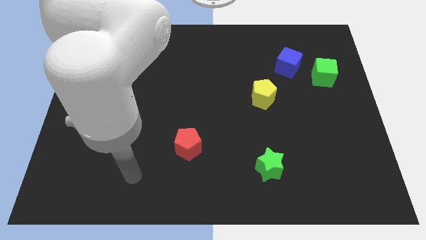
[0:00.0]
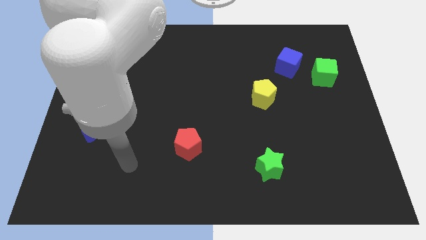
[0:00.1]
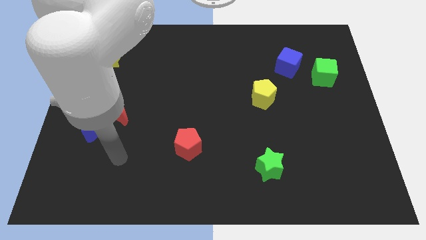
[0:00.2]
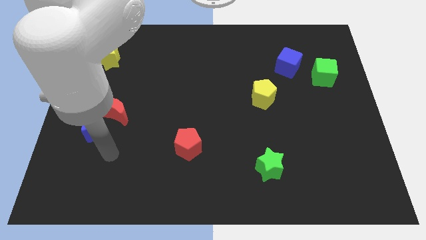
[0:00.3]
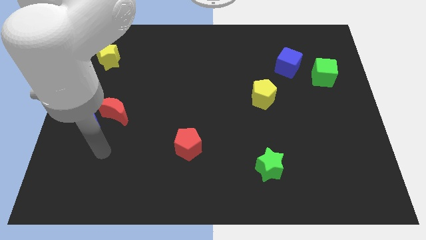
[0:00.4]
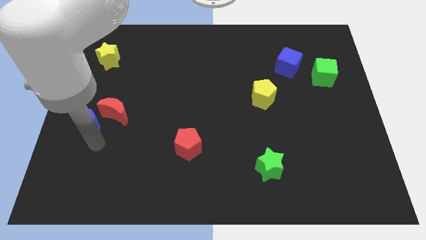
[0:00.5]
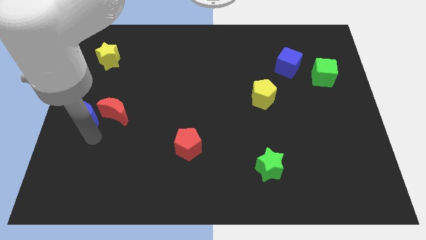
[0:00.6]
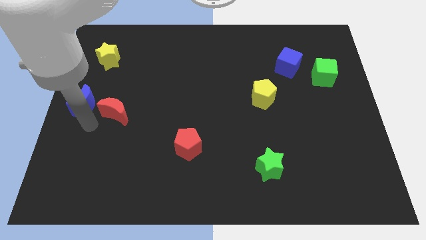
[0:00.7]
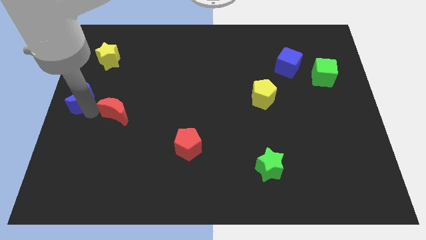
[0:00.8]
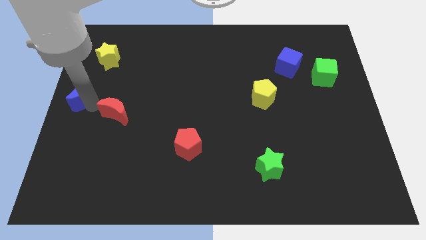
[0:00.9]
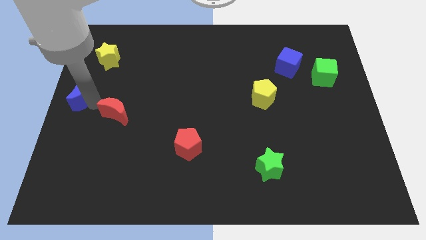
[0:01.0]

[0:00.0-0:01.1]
move the red moon away from the blue moon

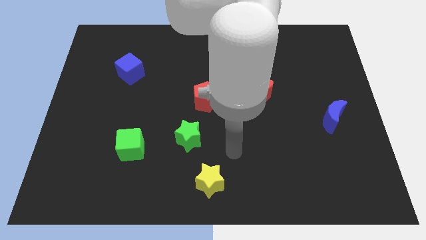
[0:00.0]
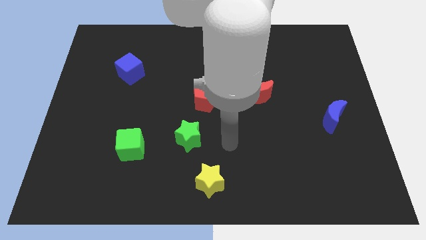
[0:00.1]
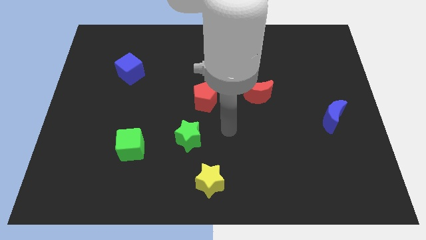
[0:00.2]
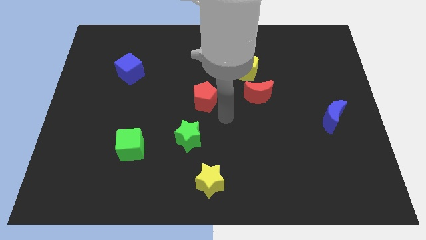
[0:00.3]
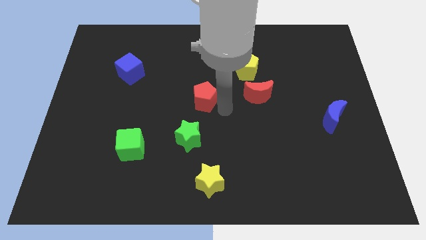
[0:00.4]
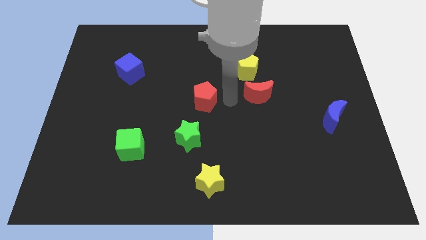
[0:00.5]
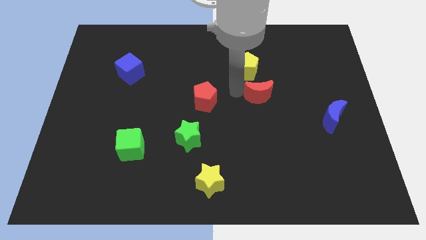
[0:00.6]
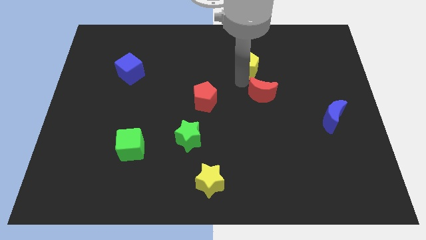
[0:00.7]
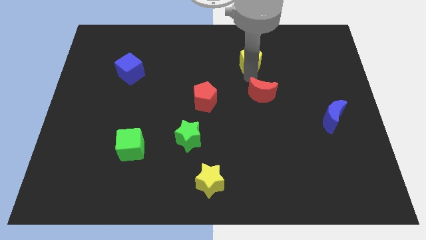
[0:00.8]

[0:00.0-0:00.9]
pull the red moon apart from the yellow pentagon

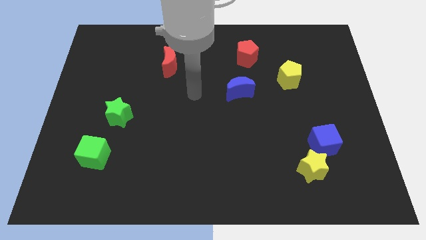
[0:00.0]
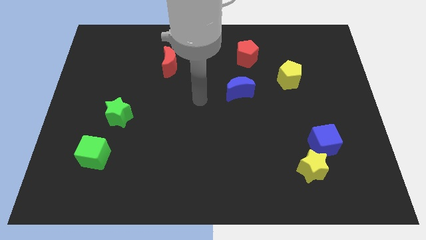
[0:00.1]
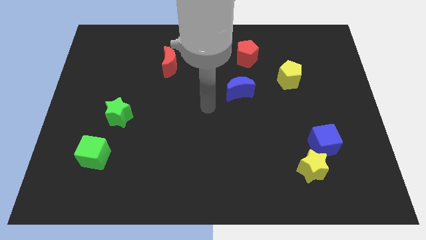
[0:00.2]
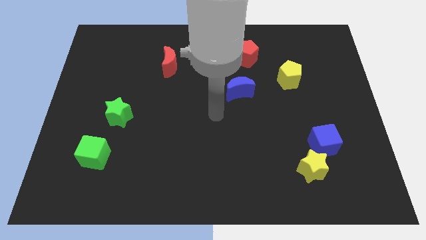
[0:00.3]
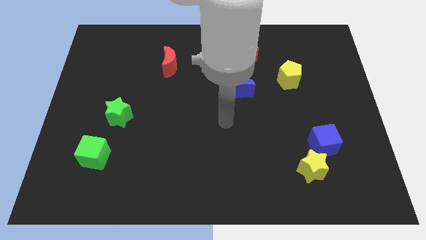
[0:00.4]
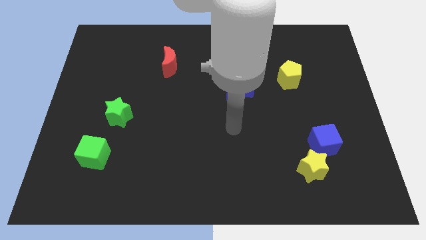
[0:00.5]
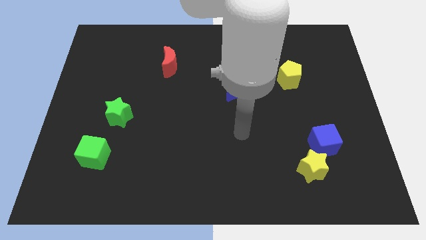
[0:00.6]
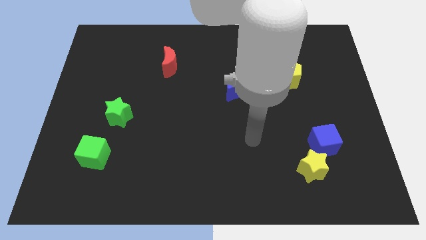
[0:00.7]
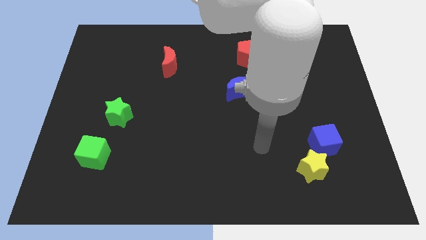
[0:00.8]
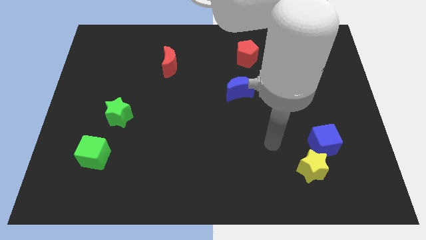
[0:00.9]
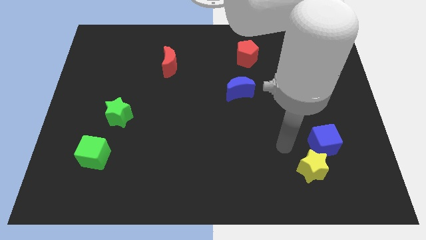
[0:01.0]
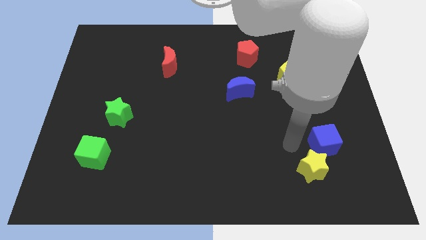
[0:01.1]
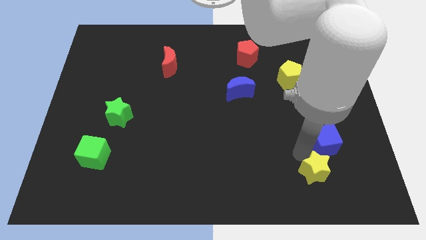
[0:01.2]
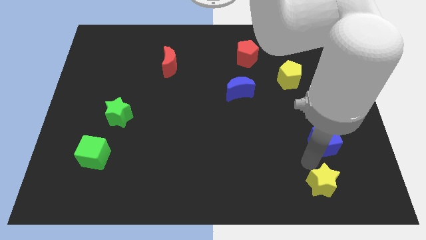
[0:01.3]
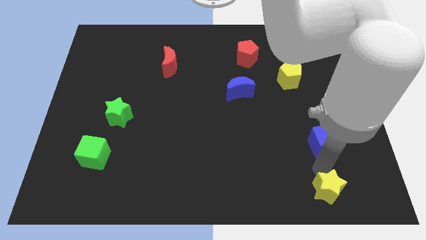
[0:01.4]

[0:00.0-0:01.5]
pull the blue cube apart from the yellow star

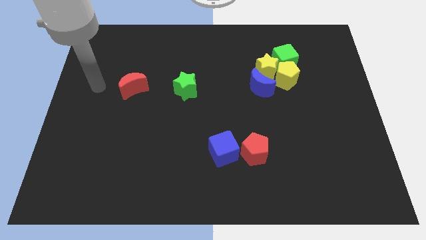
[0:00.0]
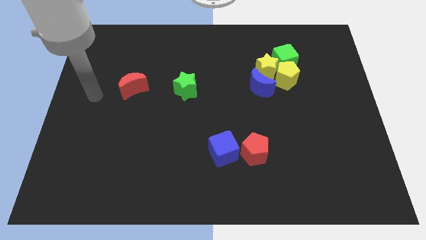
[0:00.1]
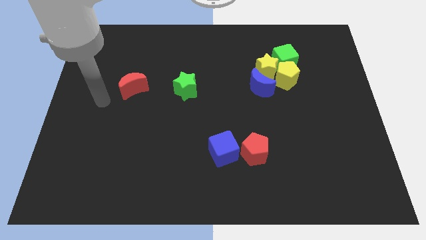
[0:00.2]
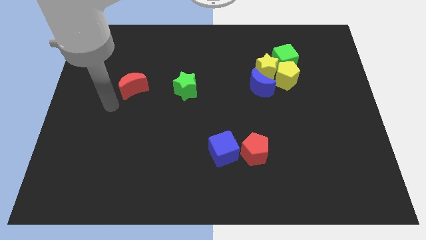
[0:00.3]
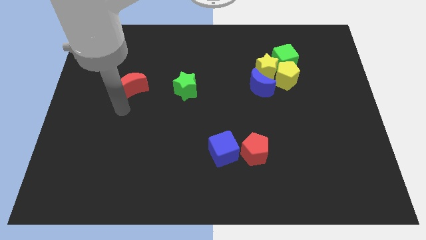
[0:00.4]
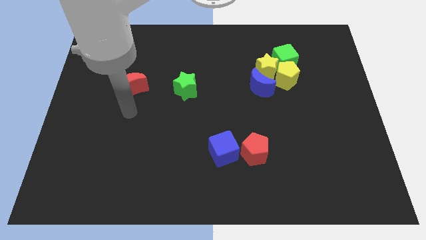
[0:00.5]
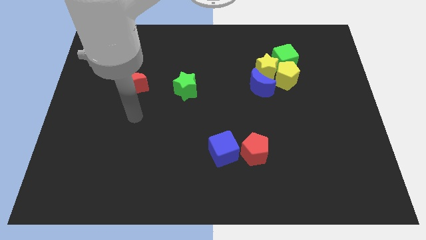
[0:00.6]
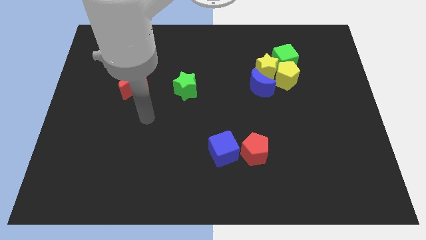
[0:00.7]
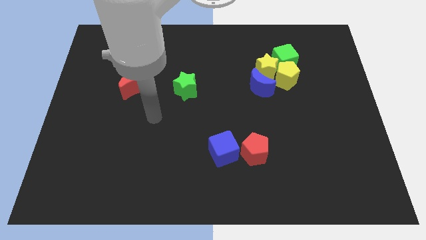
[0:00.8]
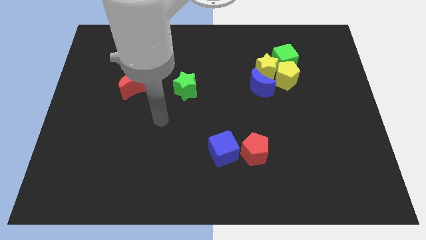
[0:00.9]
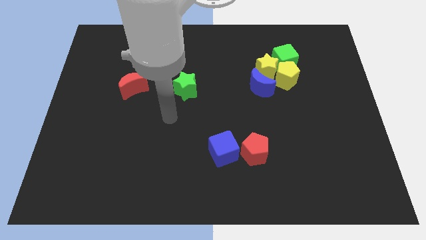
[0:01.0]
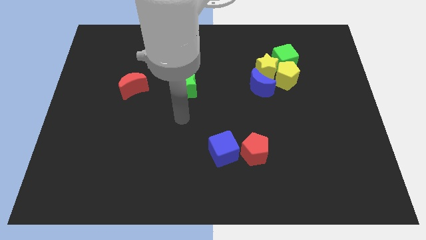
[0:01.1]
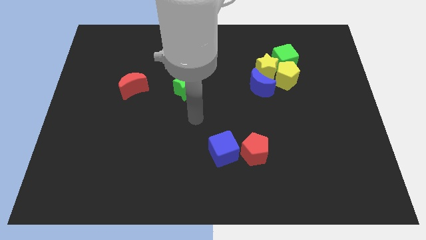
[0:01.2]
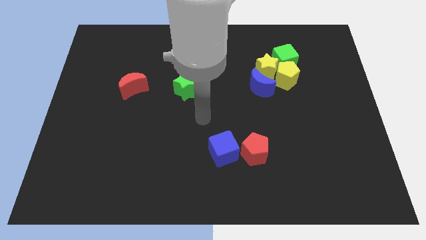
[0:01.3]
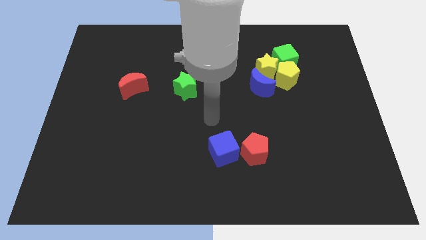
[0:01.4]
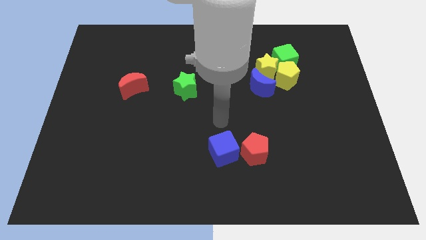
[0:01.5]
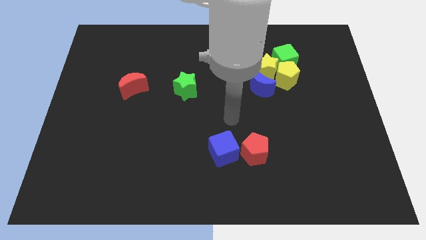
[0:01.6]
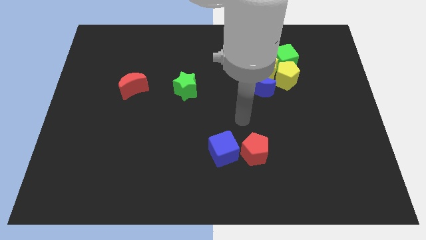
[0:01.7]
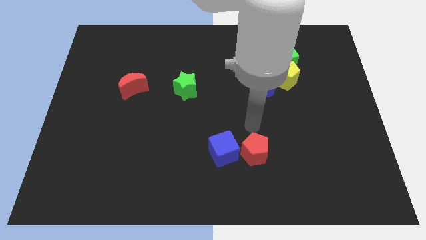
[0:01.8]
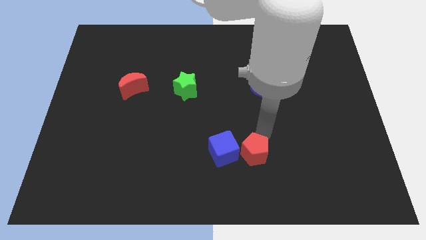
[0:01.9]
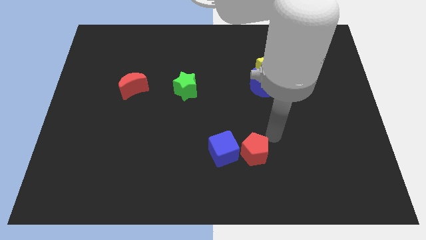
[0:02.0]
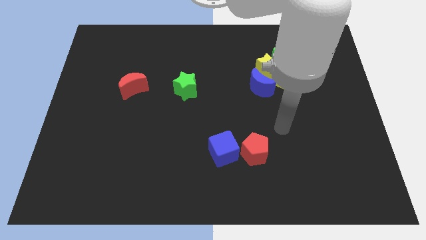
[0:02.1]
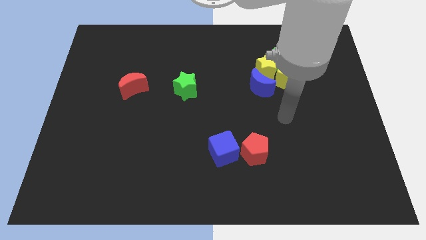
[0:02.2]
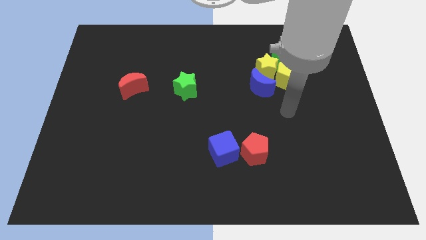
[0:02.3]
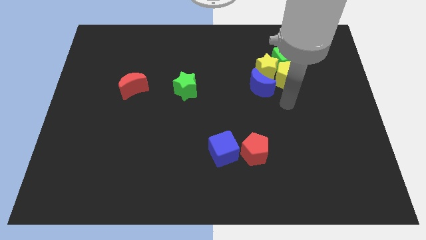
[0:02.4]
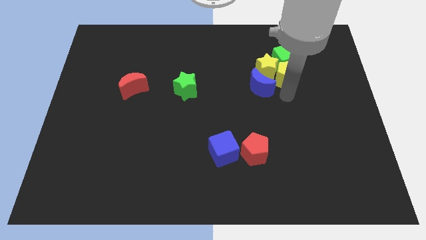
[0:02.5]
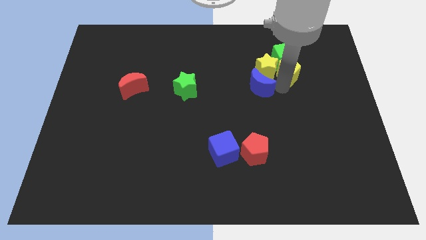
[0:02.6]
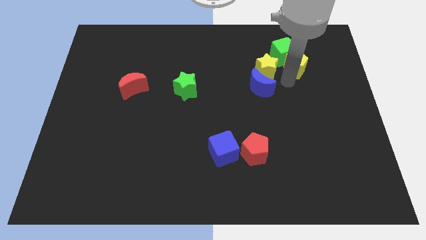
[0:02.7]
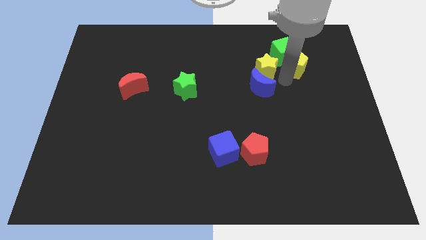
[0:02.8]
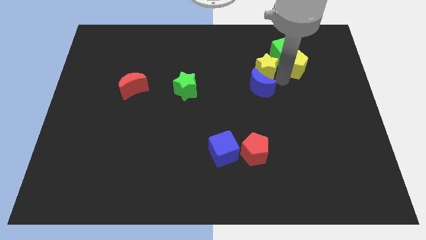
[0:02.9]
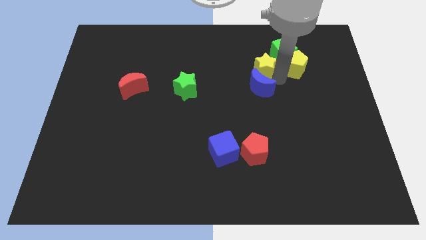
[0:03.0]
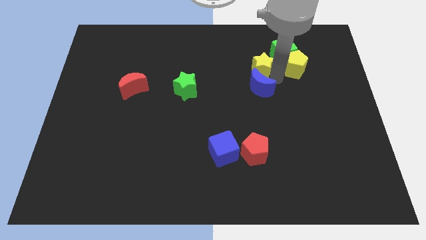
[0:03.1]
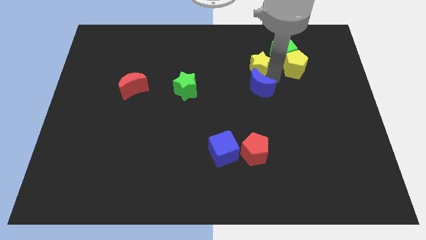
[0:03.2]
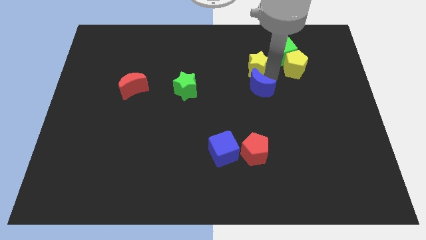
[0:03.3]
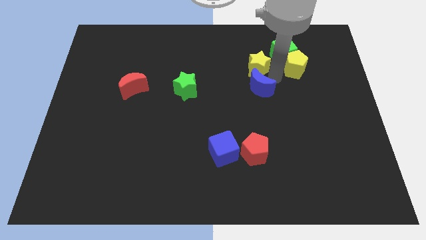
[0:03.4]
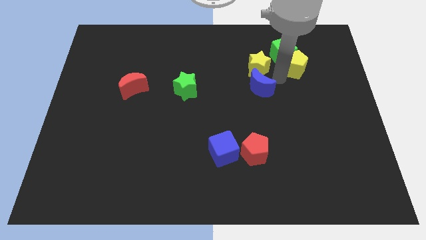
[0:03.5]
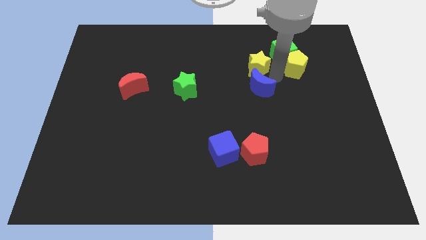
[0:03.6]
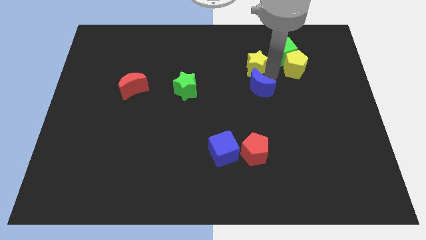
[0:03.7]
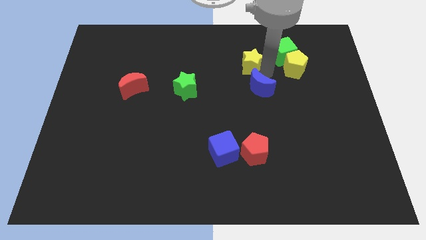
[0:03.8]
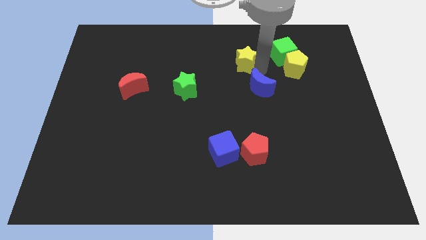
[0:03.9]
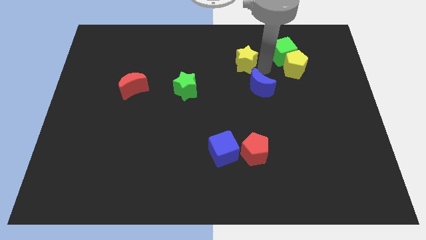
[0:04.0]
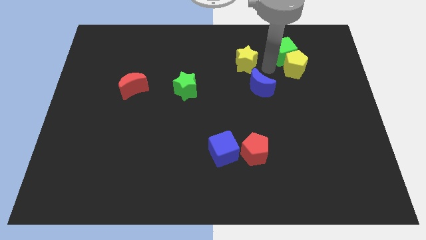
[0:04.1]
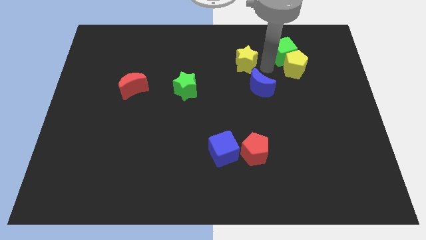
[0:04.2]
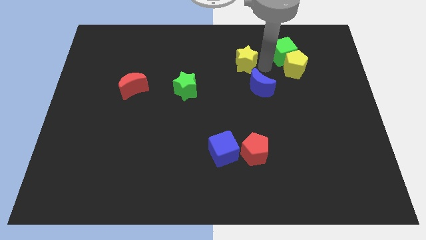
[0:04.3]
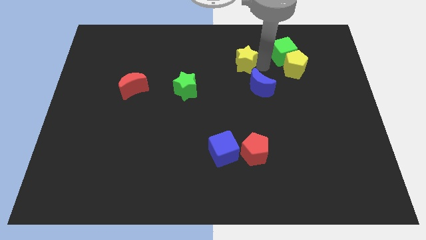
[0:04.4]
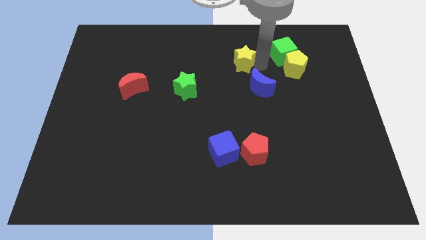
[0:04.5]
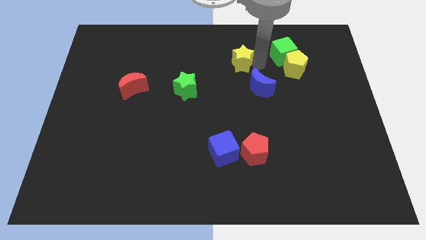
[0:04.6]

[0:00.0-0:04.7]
move the yellow star away from the yellow pentagon, blue moon, and green cube

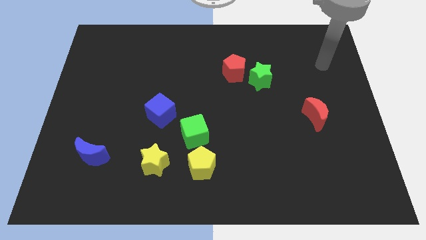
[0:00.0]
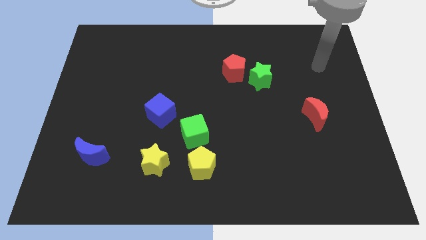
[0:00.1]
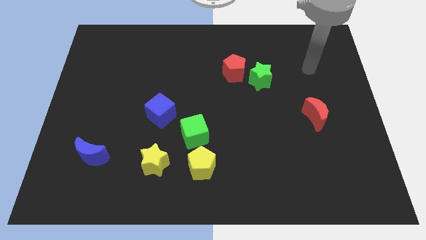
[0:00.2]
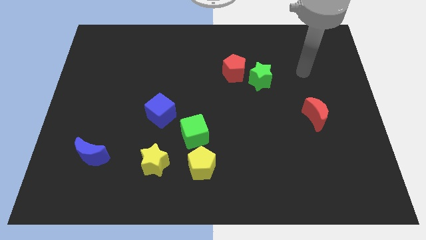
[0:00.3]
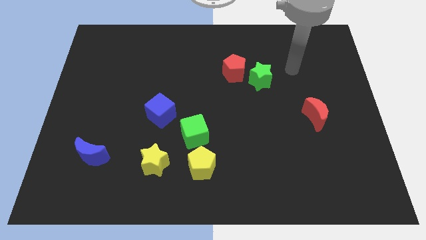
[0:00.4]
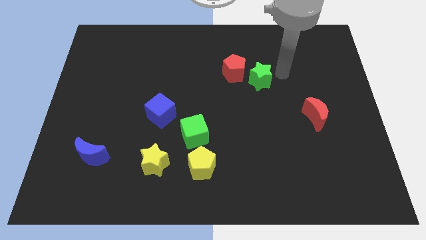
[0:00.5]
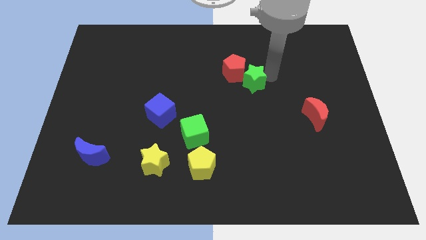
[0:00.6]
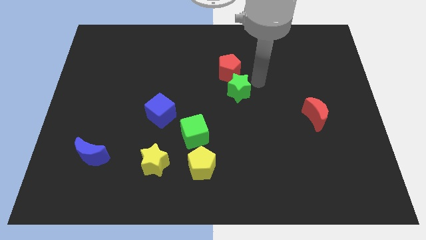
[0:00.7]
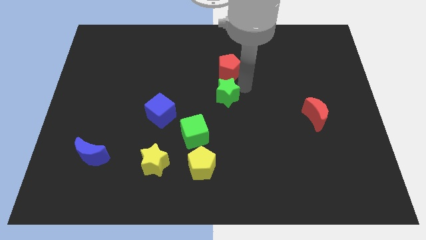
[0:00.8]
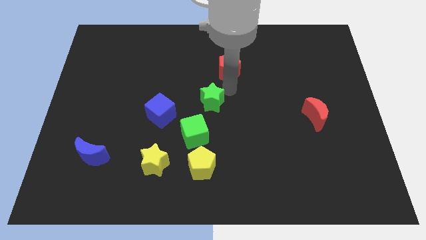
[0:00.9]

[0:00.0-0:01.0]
move the red pentagon away from the green star

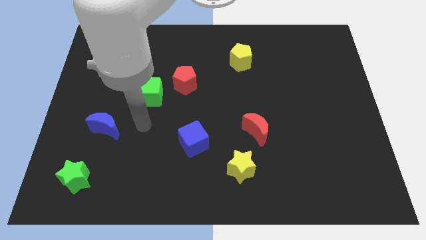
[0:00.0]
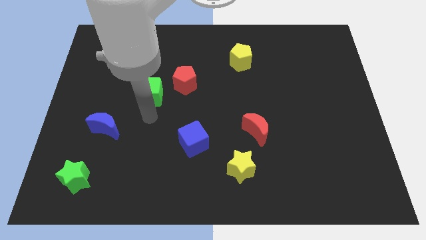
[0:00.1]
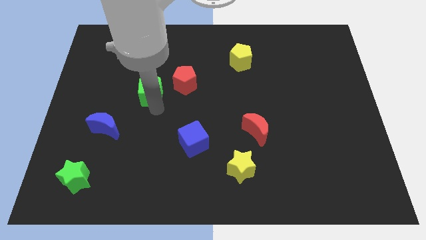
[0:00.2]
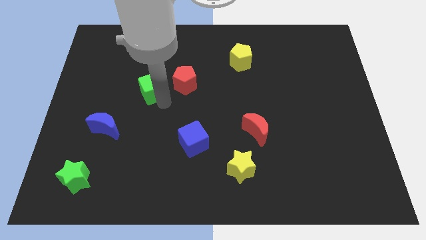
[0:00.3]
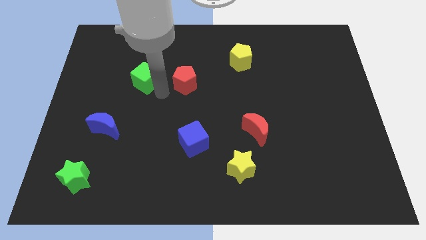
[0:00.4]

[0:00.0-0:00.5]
move the red pentagon away from the green cube
